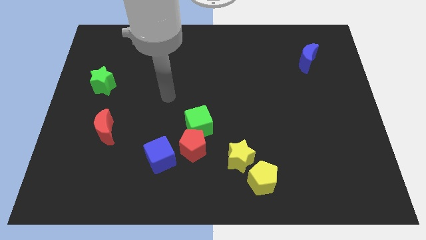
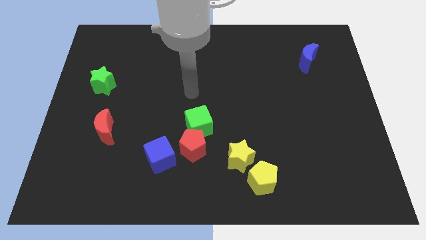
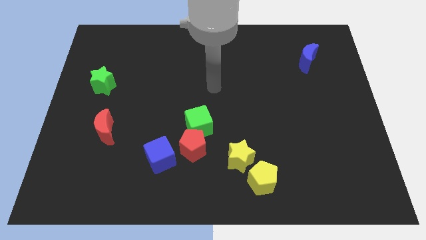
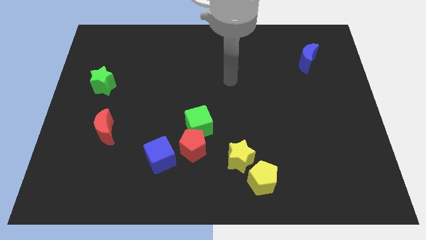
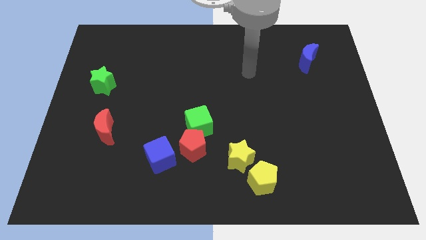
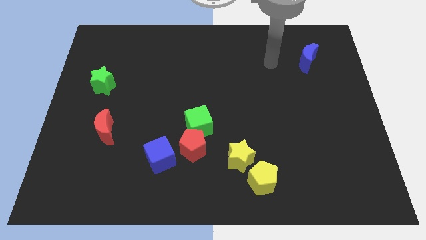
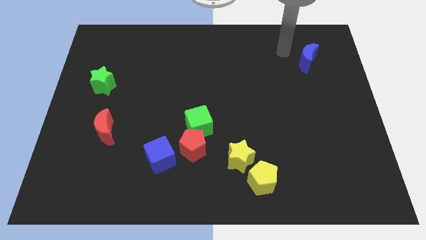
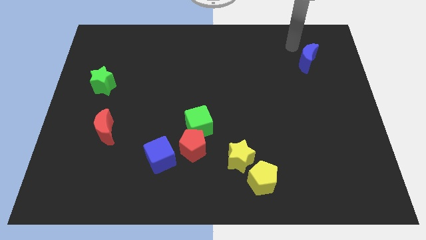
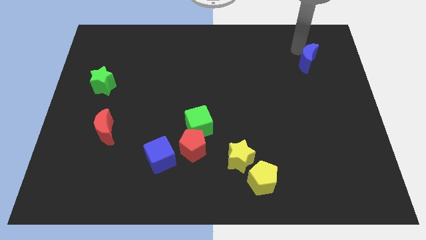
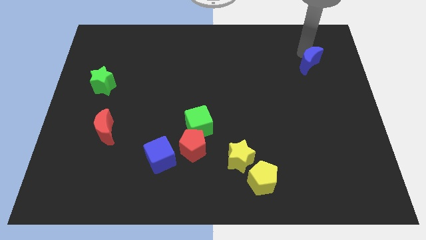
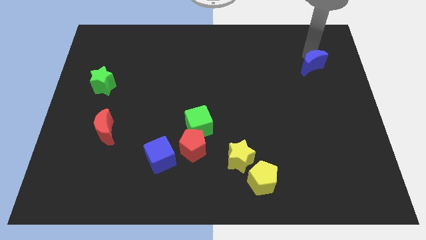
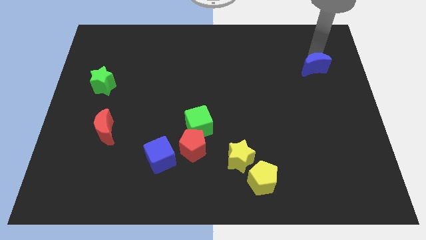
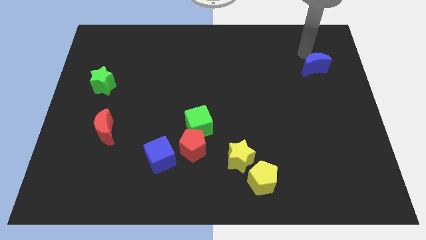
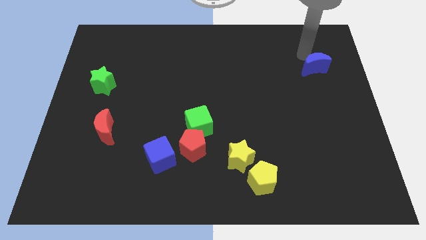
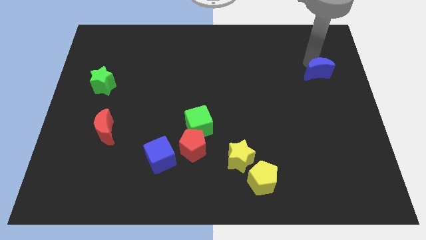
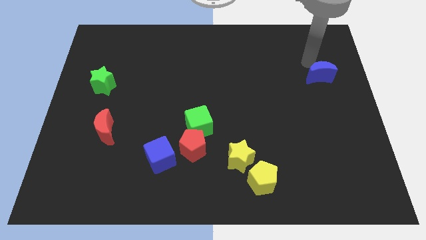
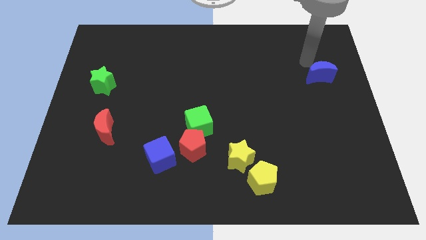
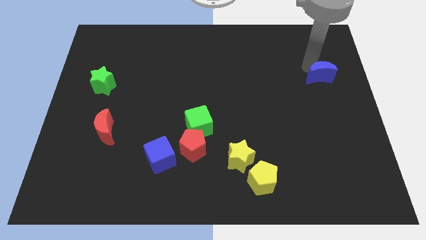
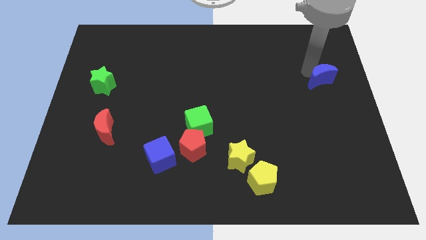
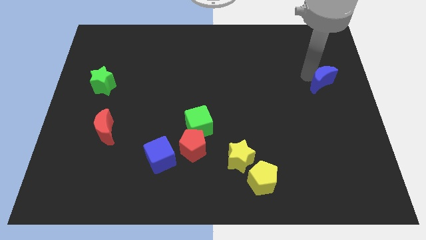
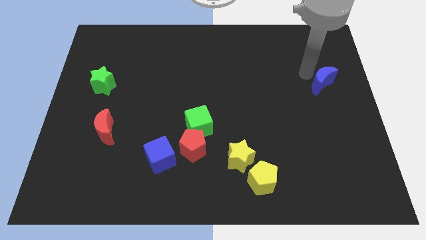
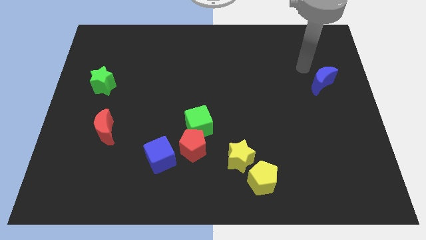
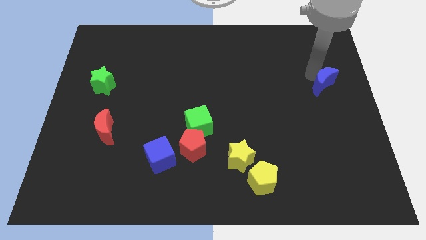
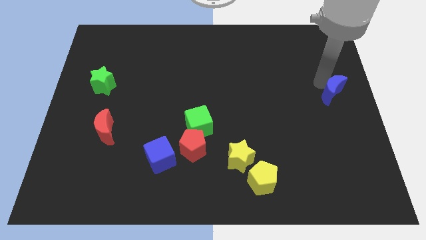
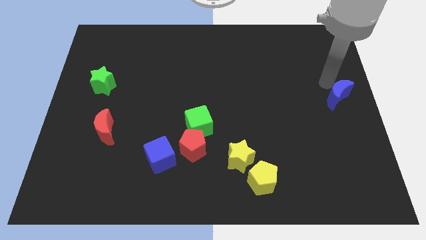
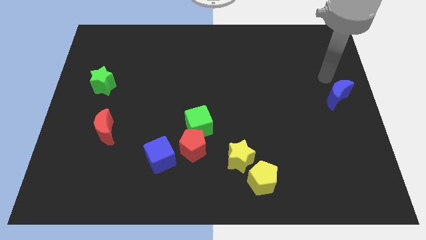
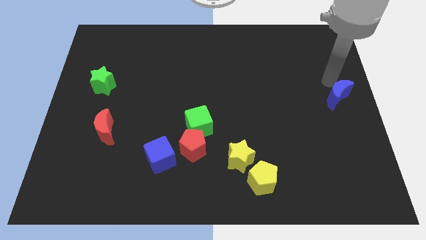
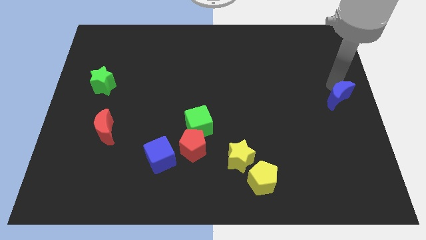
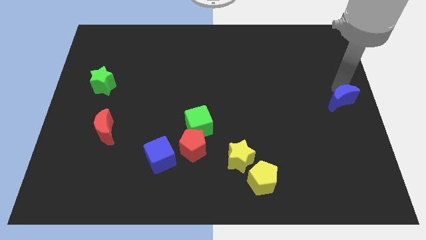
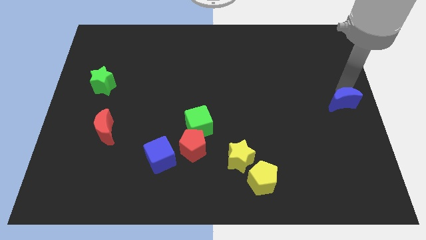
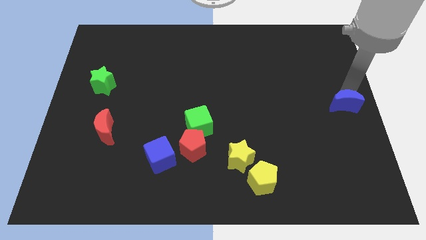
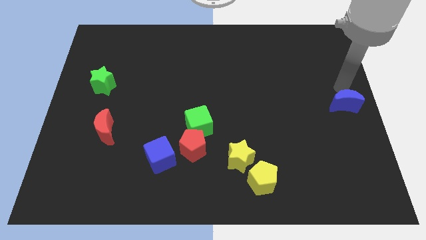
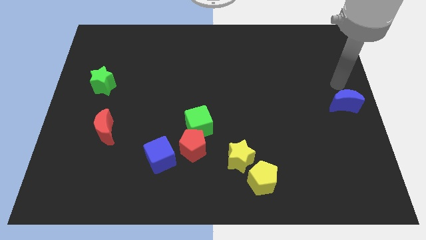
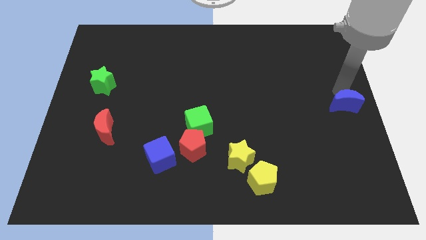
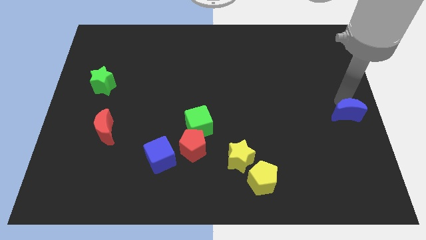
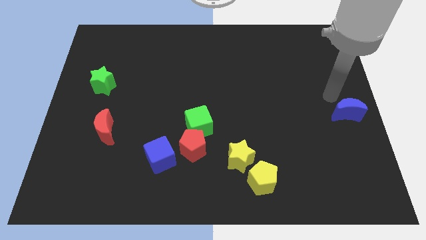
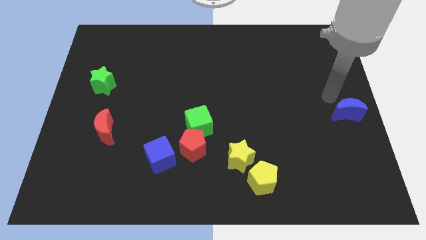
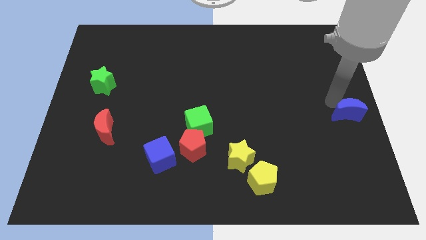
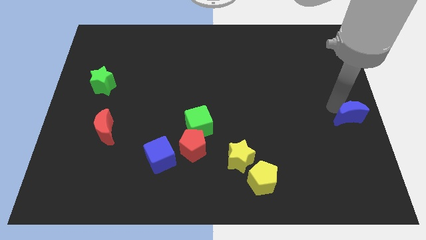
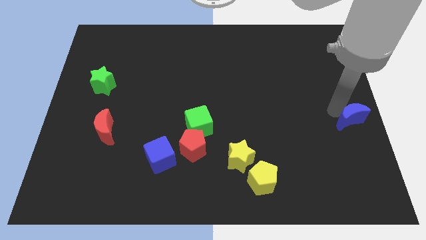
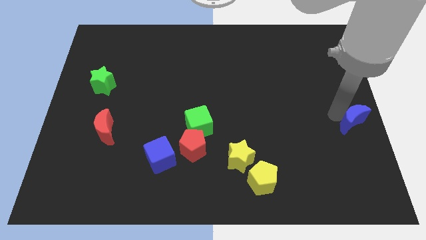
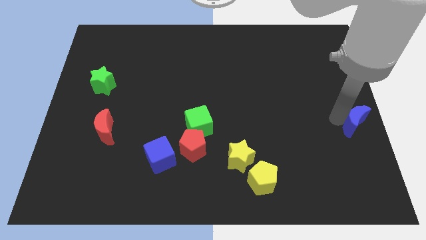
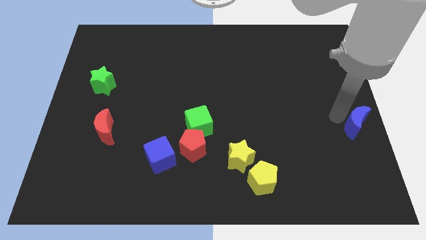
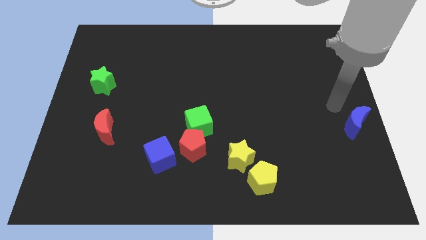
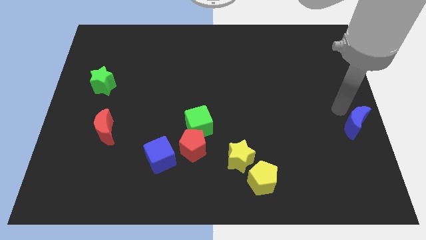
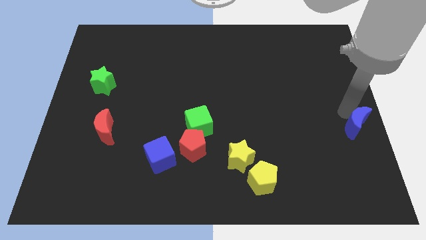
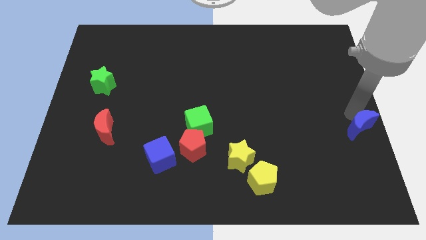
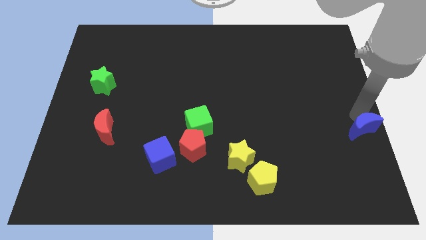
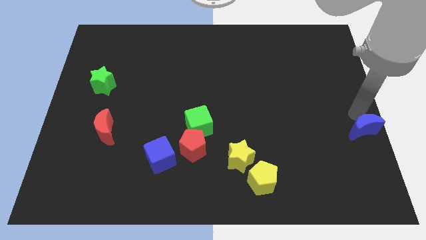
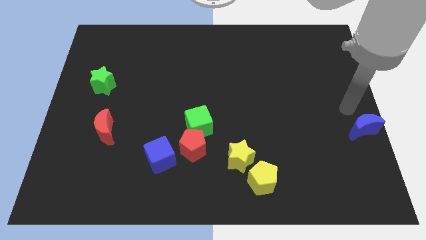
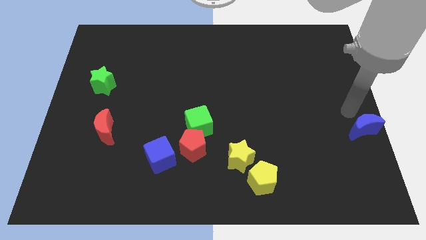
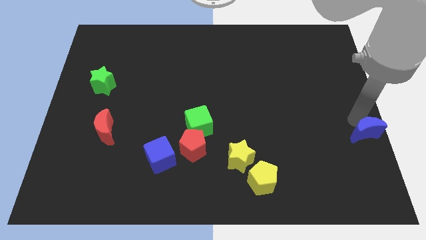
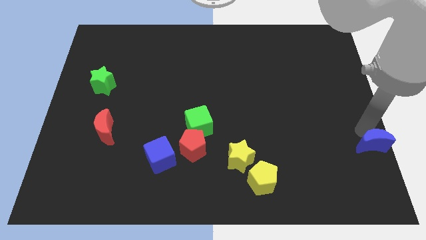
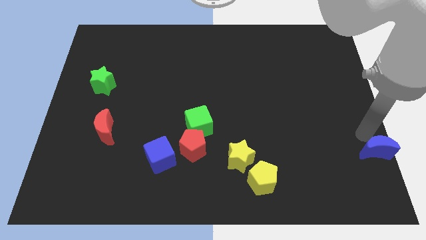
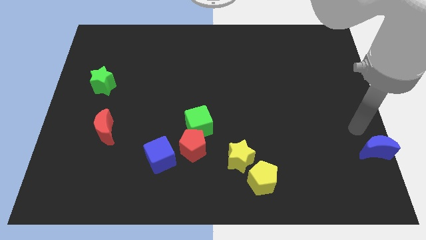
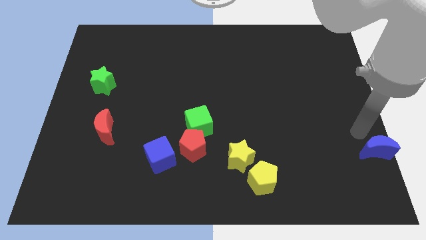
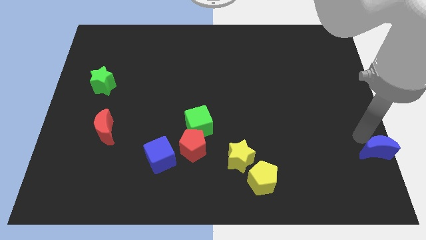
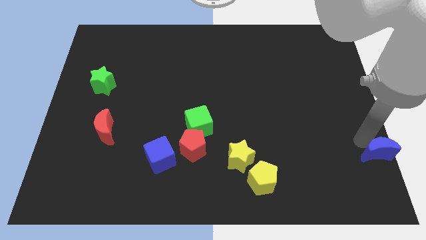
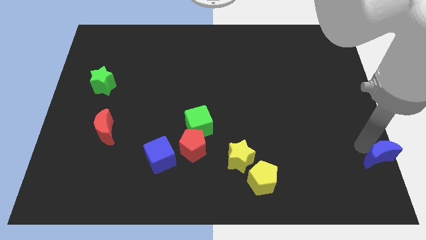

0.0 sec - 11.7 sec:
slide the blue moon to the bottom right of the board

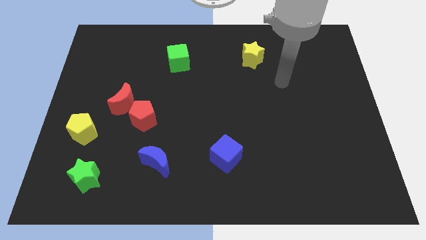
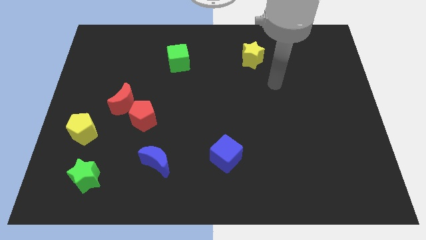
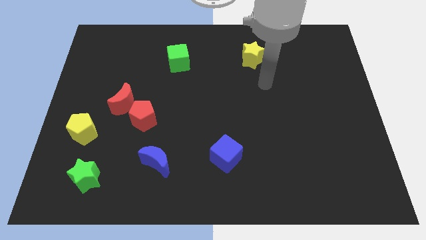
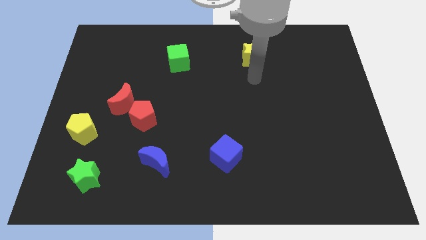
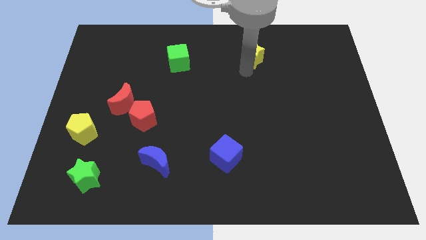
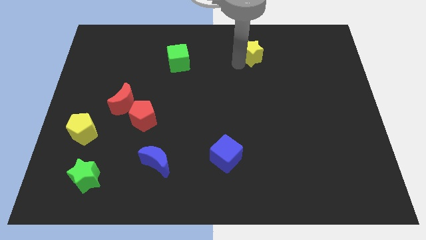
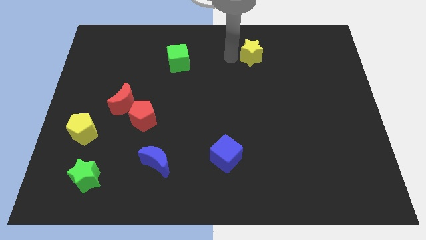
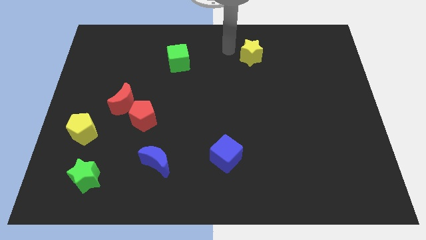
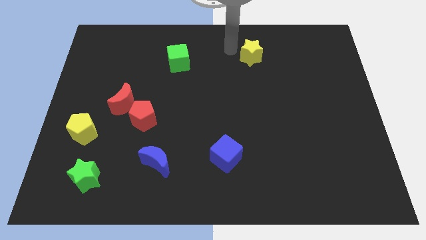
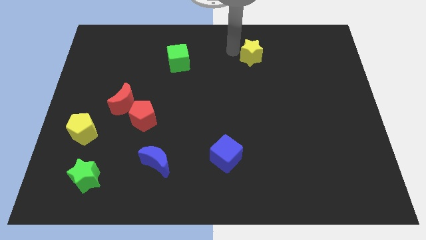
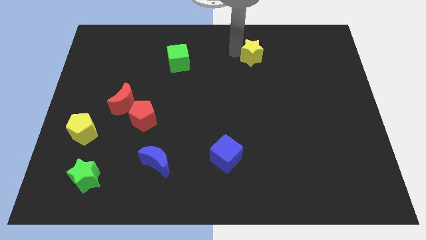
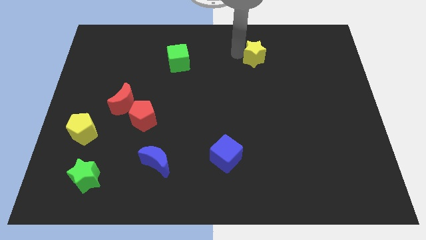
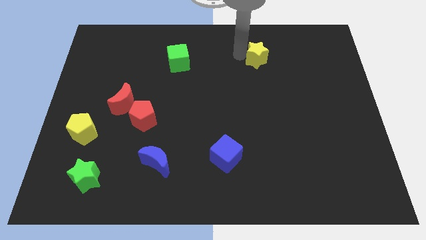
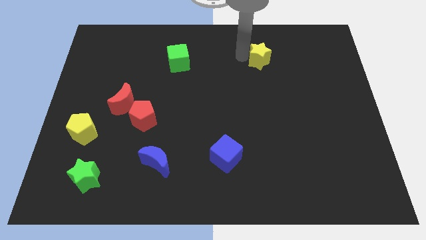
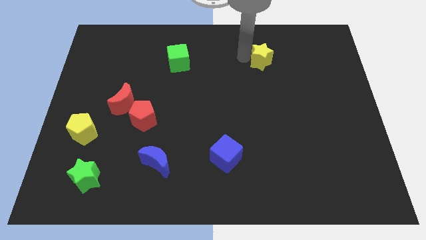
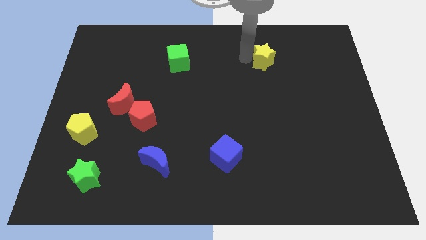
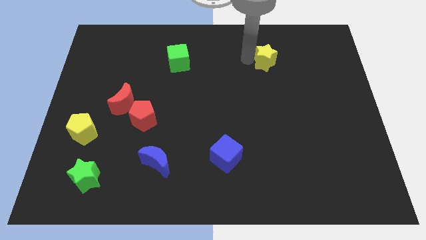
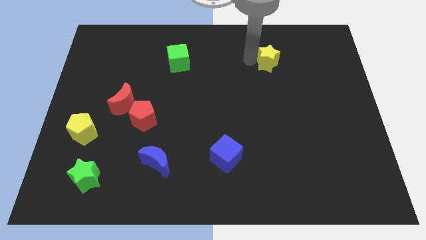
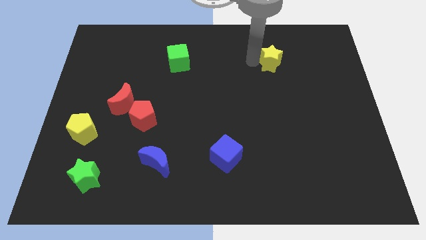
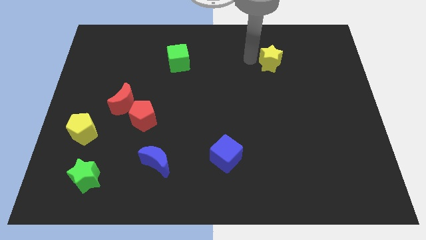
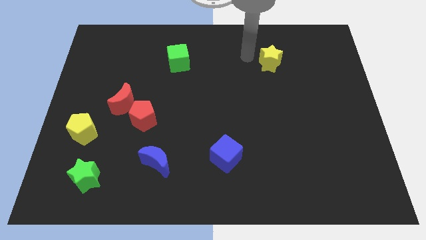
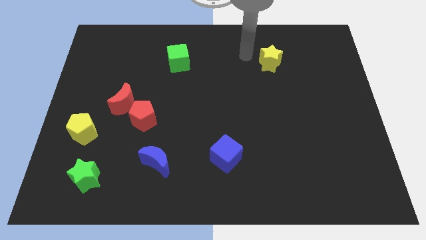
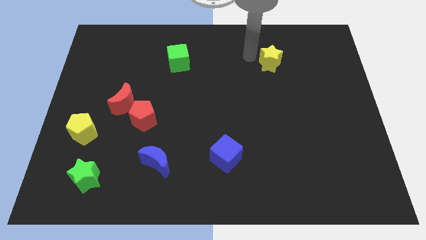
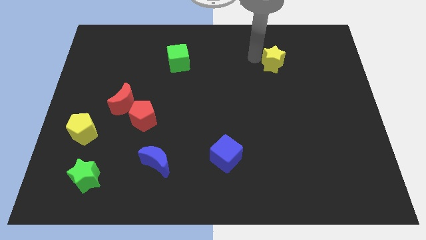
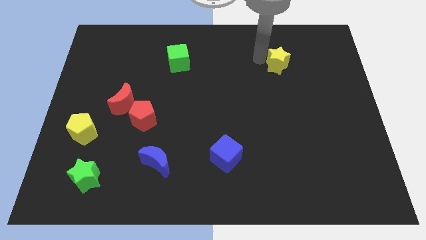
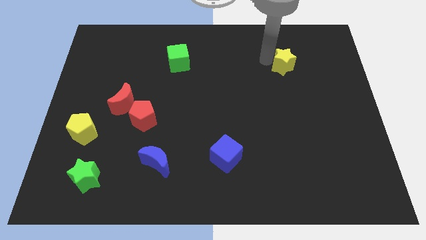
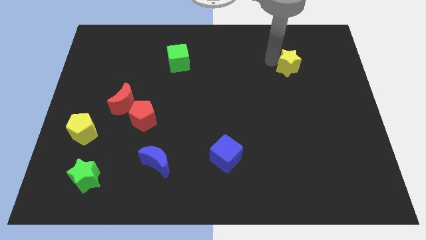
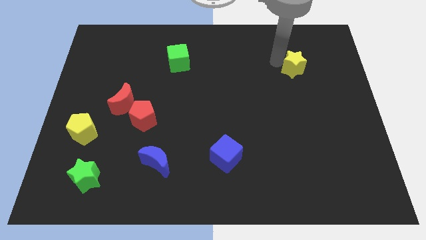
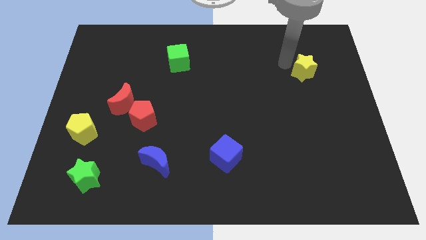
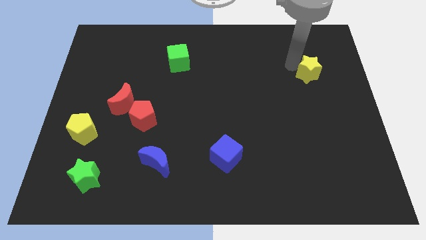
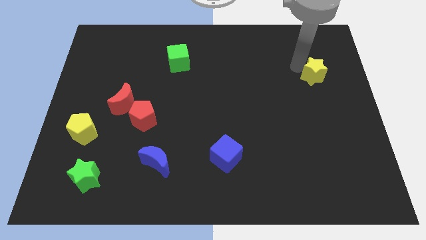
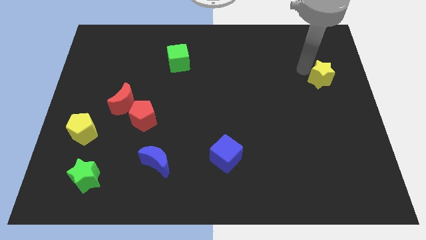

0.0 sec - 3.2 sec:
slide the yellow star to the right side
